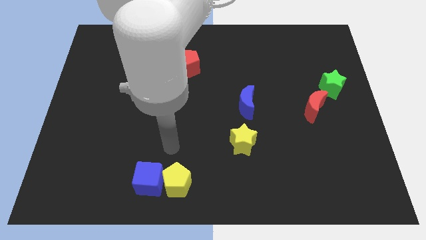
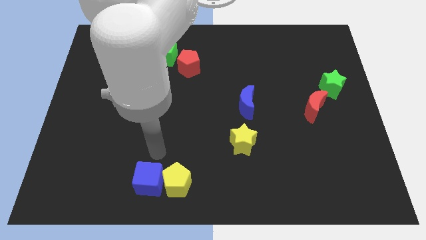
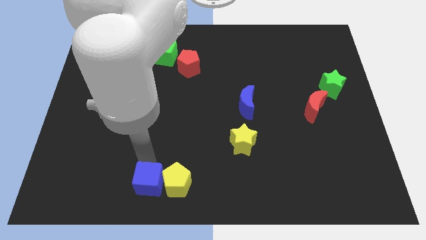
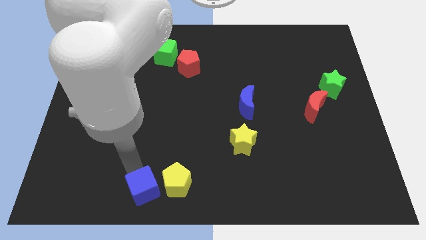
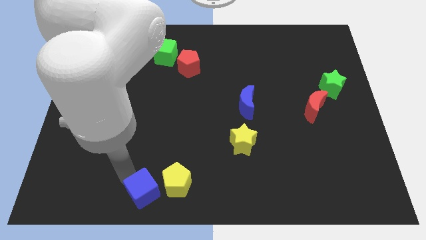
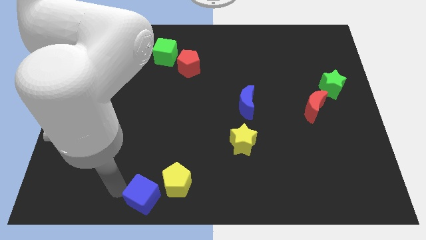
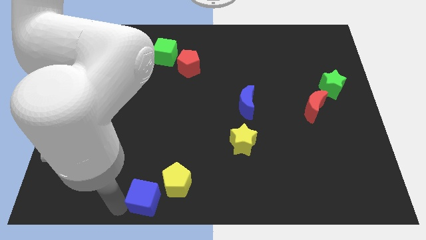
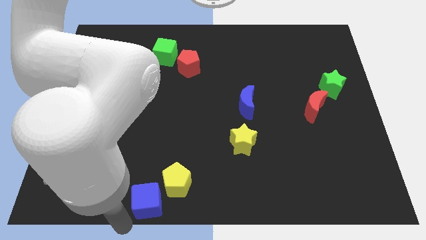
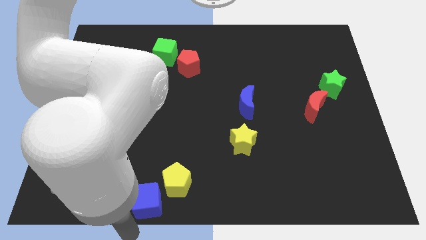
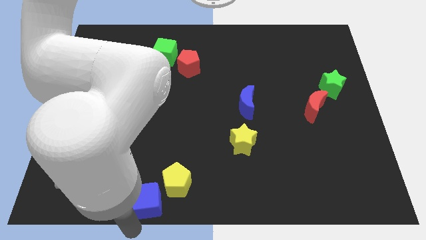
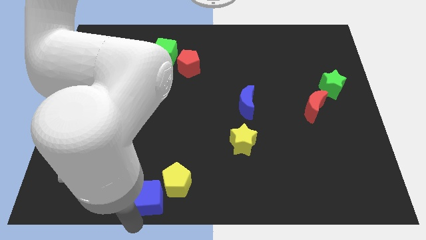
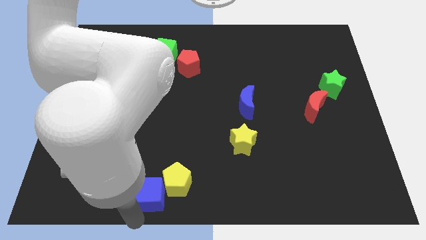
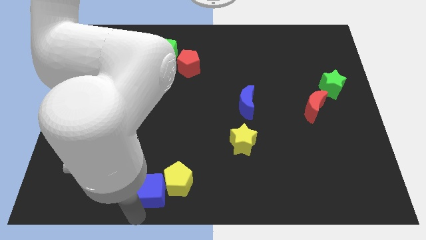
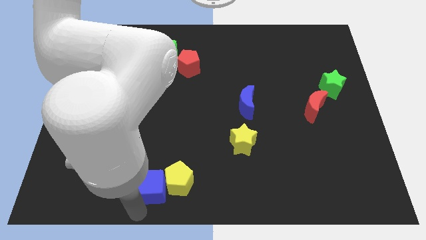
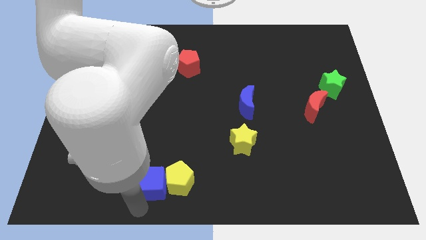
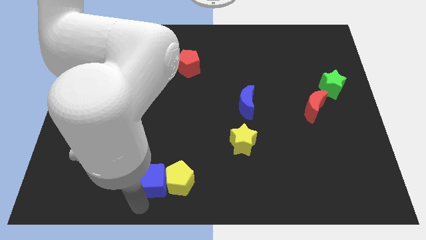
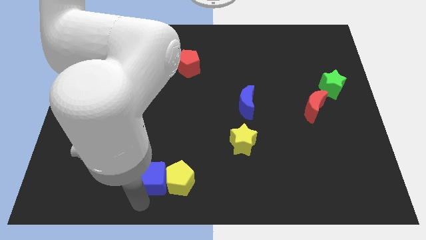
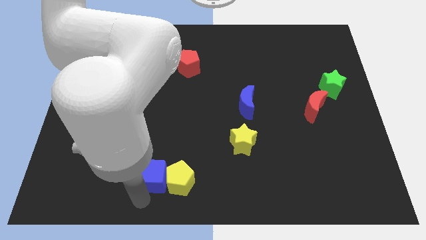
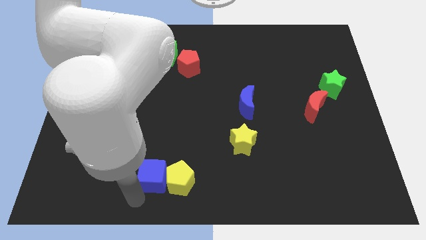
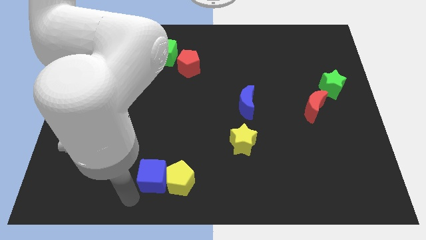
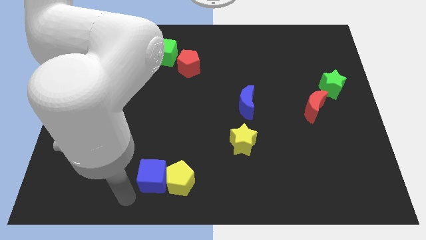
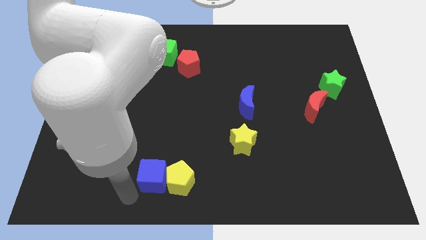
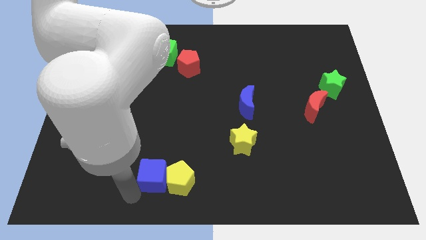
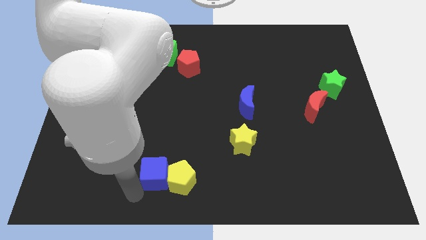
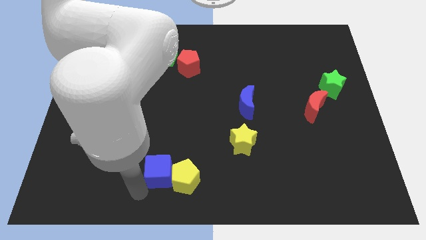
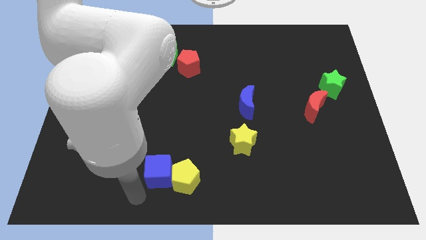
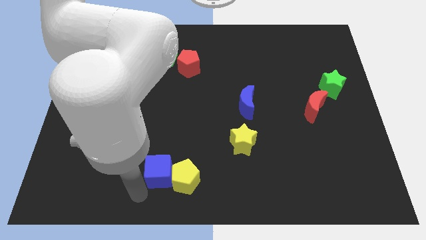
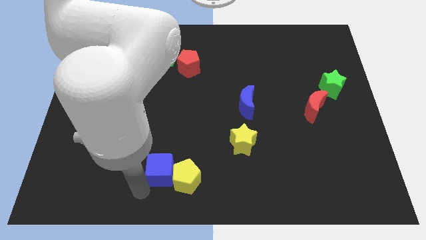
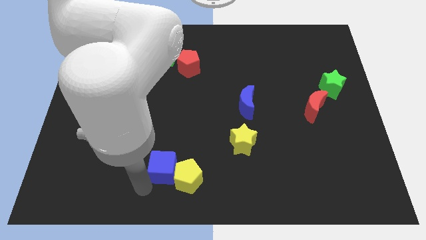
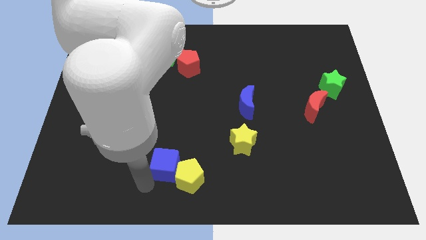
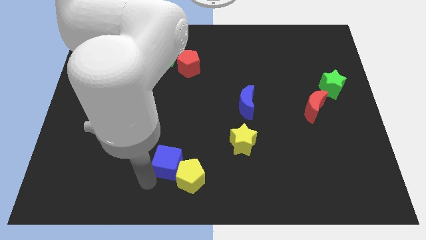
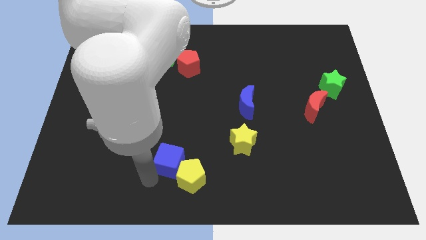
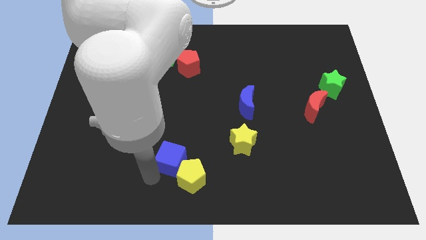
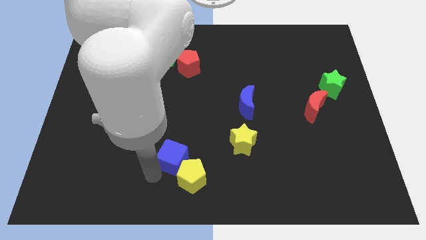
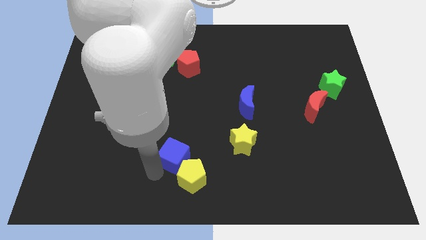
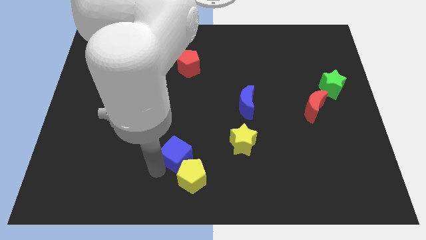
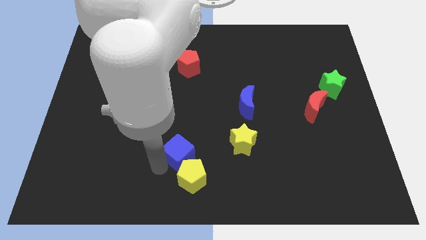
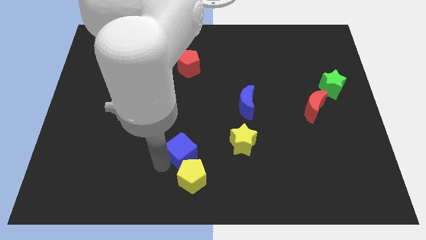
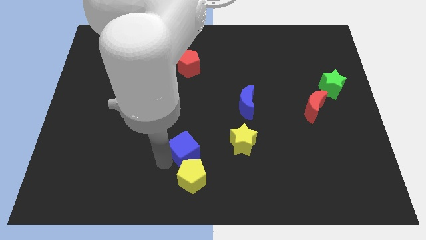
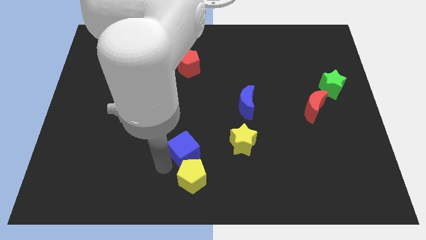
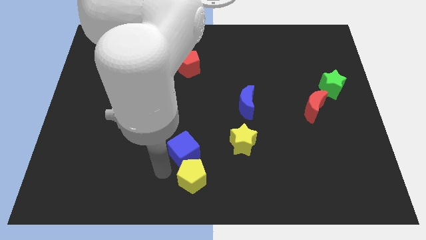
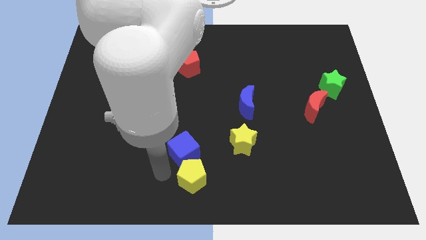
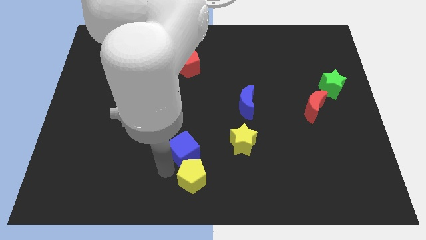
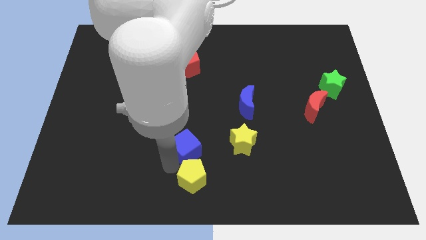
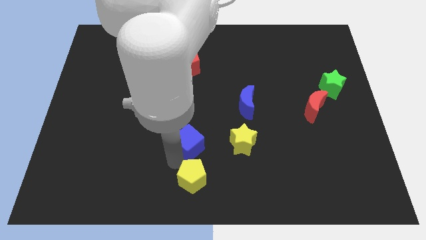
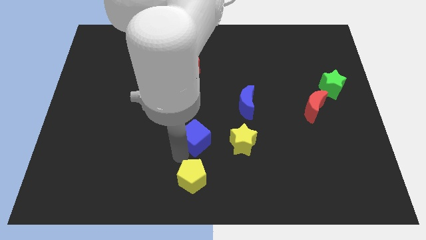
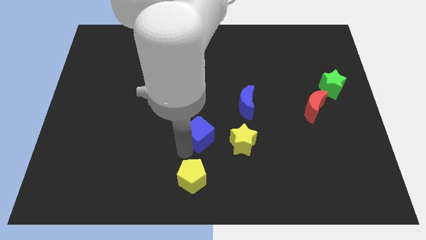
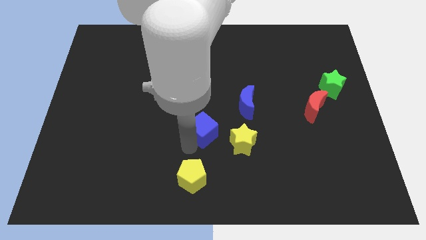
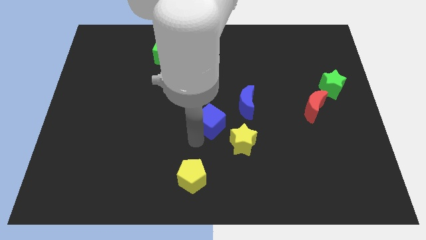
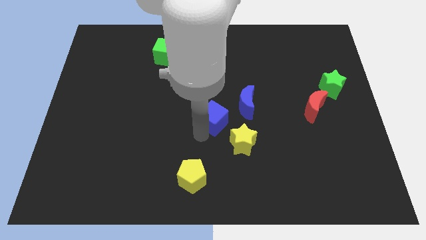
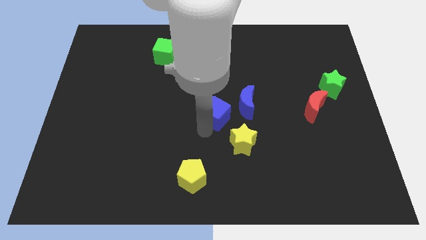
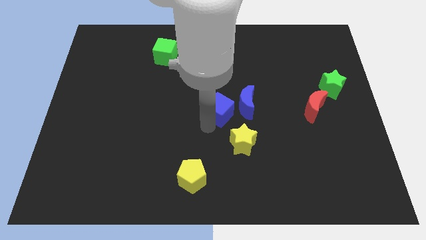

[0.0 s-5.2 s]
push the blue cube above the yellow star

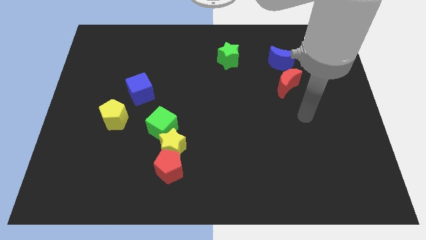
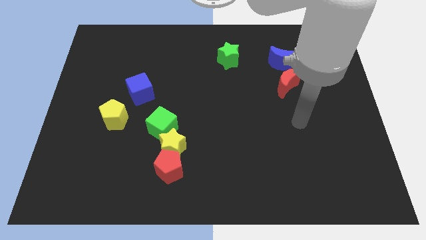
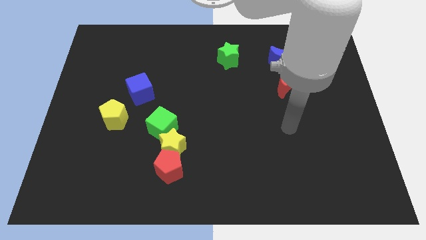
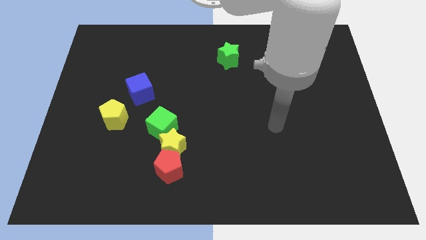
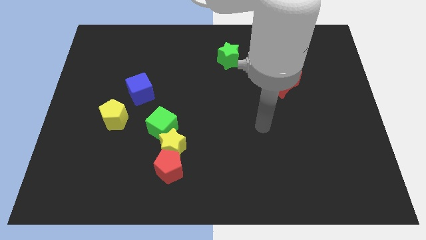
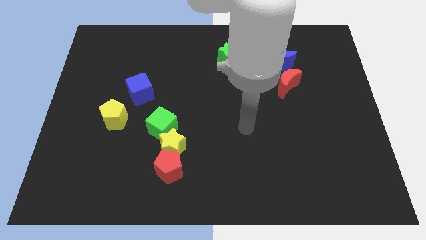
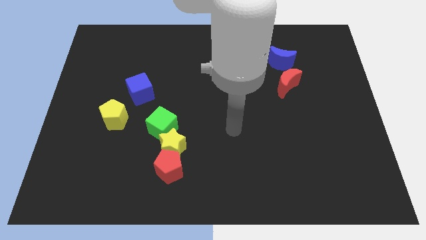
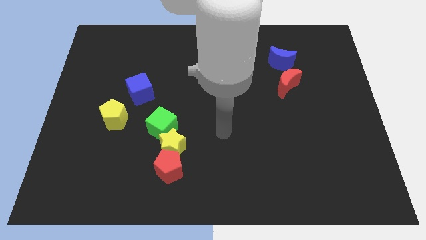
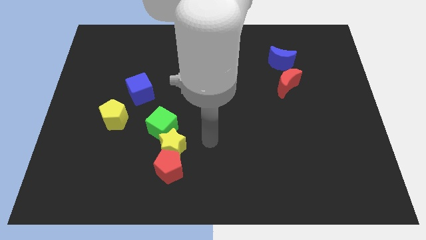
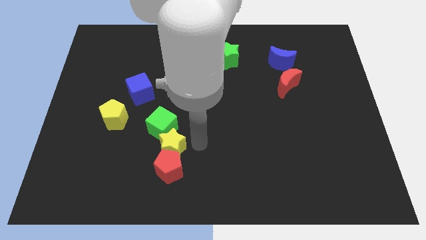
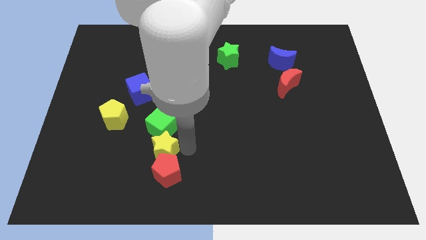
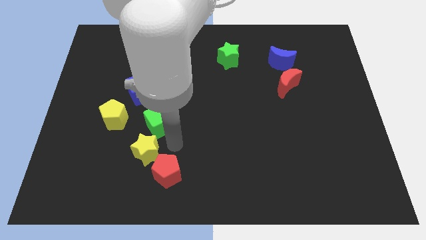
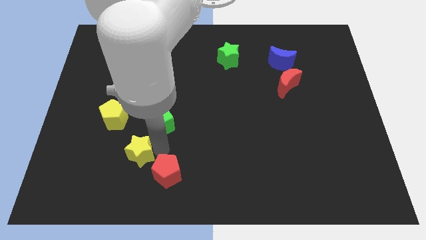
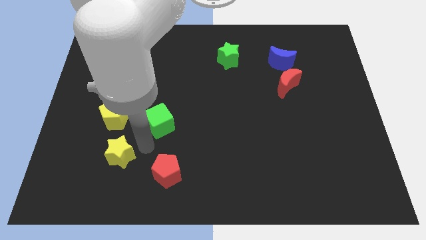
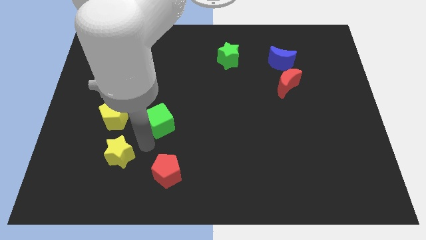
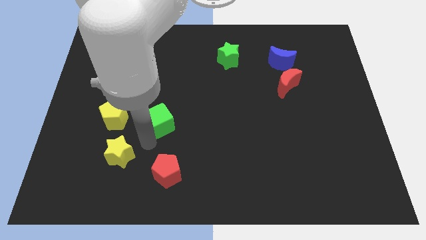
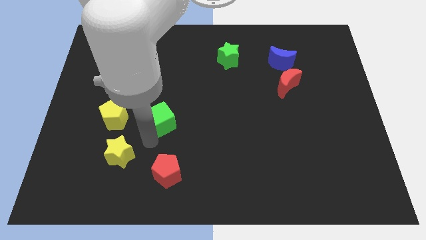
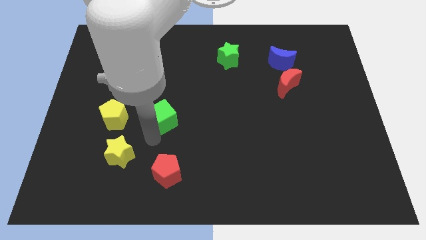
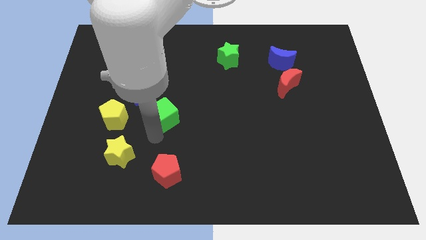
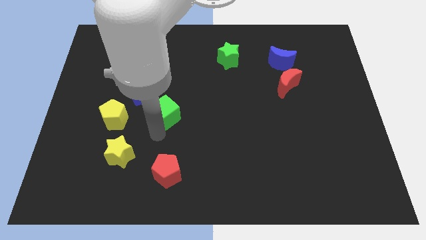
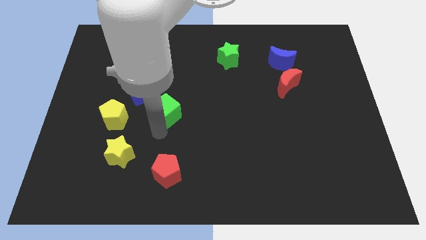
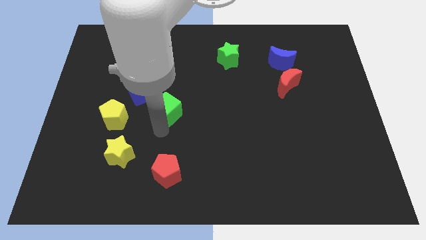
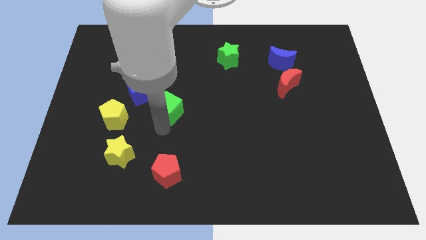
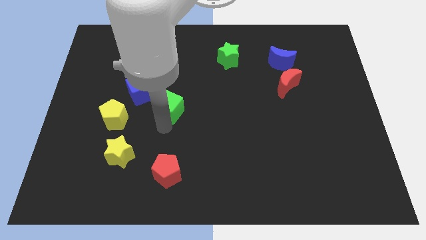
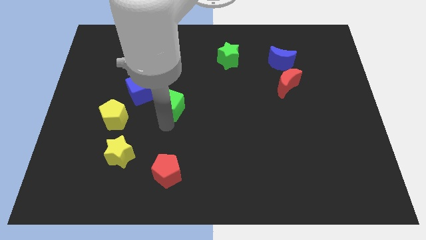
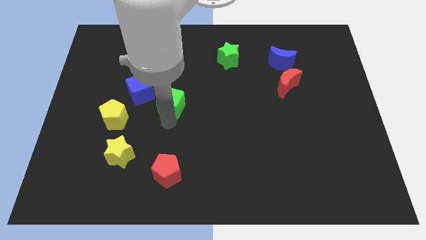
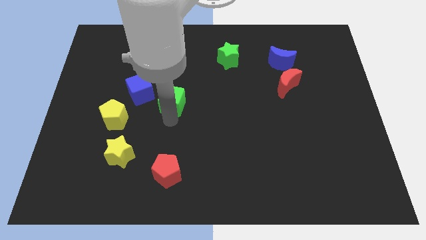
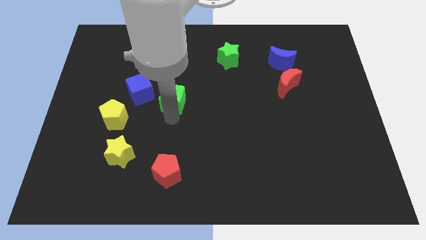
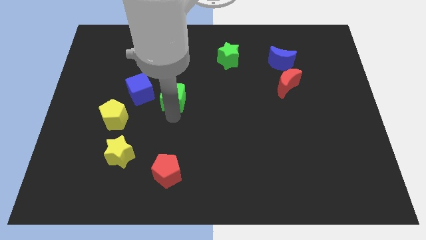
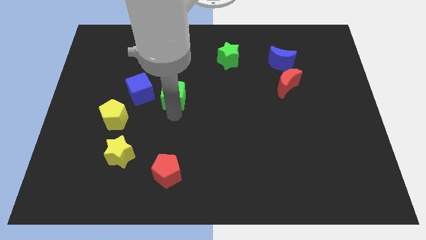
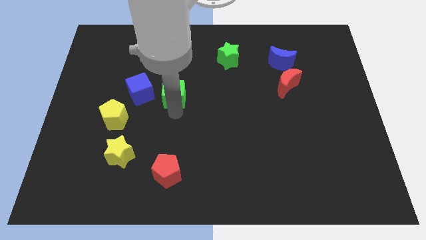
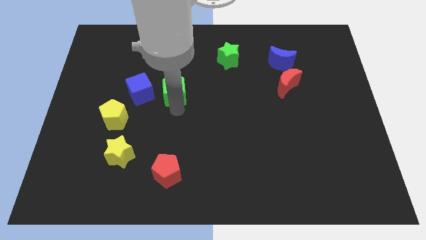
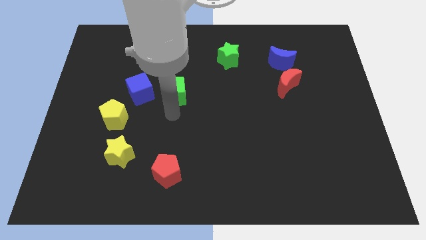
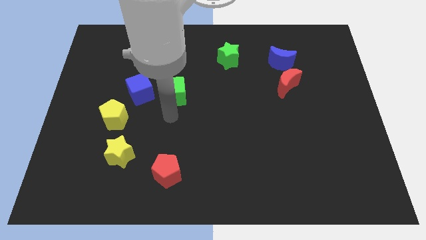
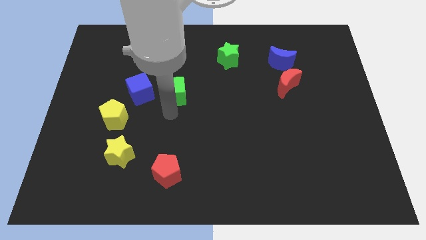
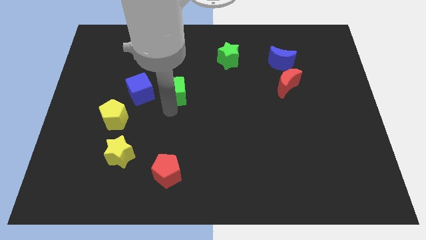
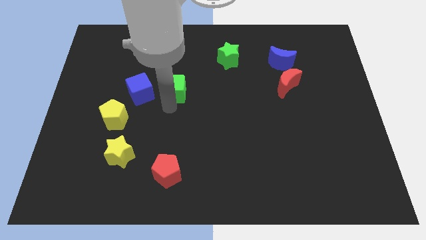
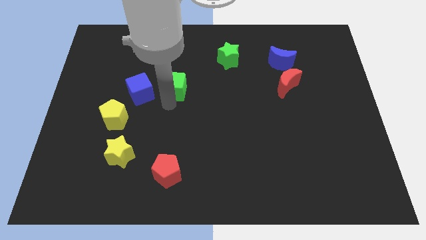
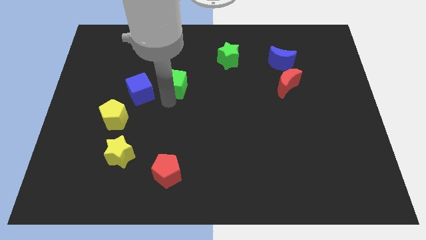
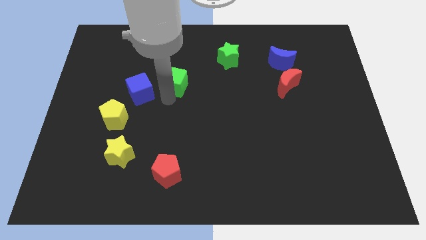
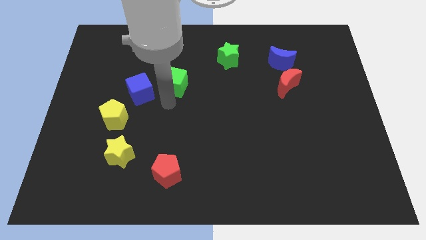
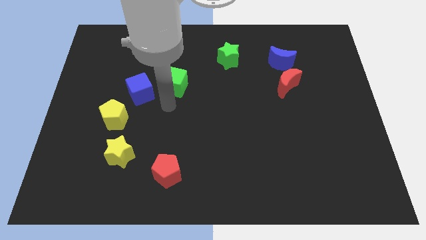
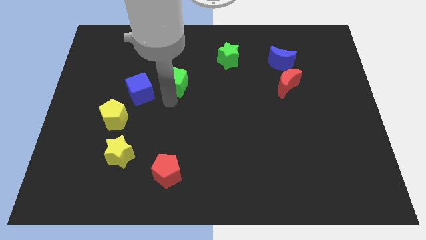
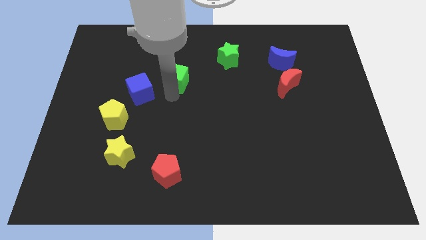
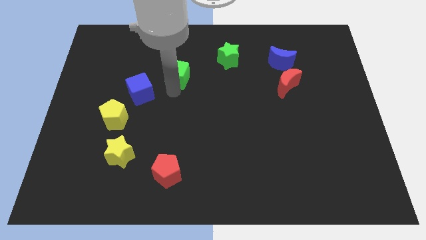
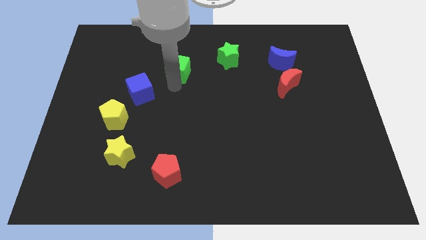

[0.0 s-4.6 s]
slide the green cube to the left side of the green star
